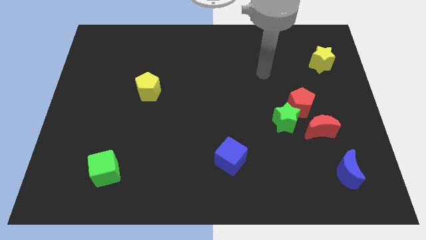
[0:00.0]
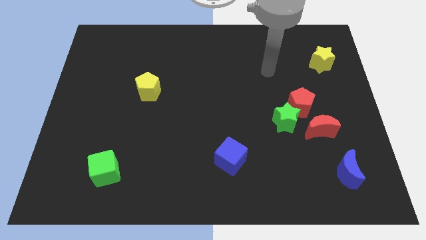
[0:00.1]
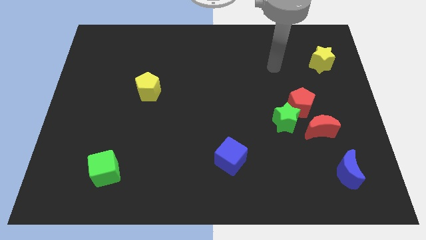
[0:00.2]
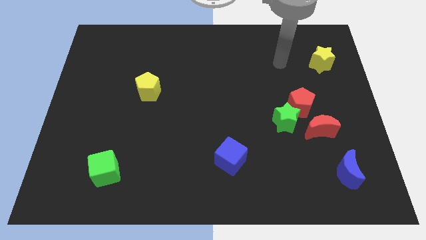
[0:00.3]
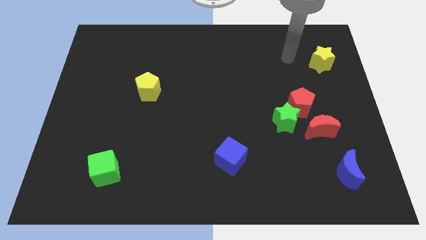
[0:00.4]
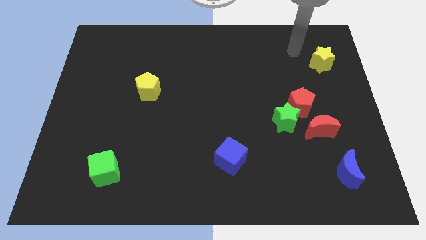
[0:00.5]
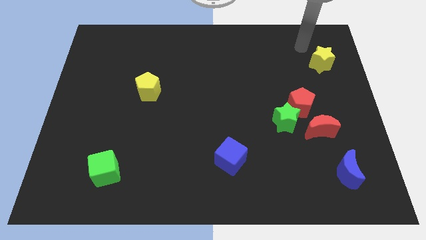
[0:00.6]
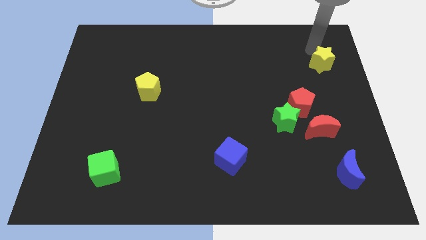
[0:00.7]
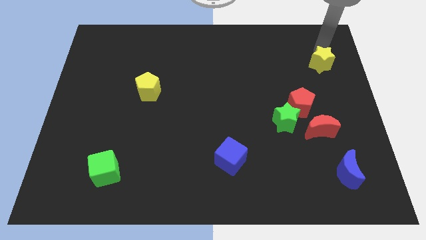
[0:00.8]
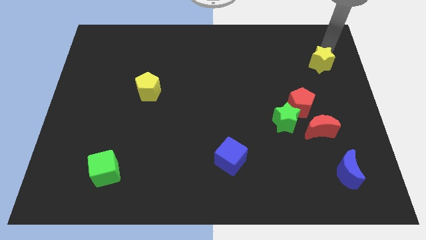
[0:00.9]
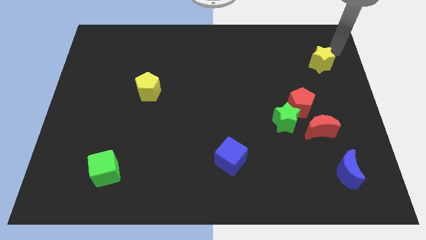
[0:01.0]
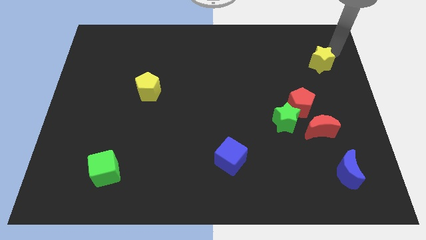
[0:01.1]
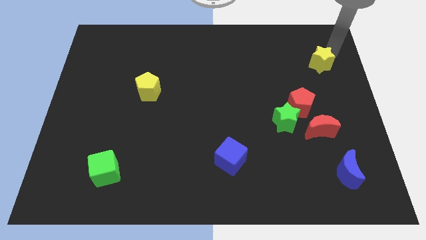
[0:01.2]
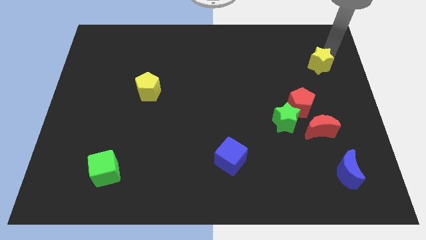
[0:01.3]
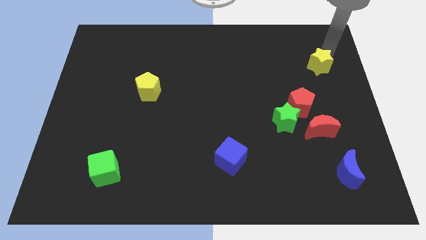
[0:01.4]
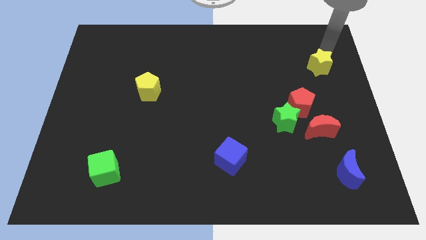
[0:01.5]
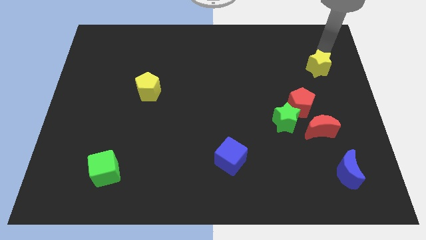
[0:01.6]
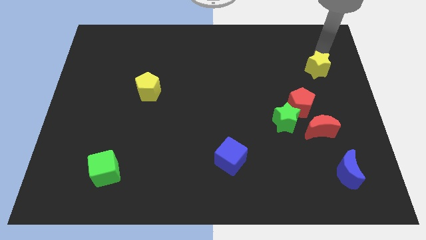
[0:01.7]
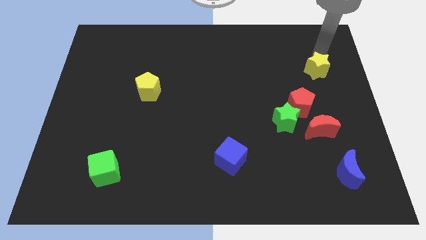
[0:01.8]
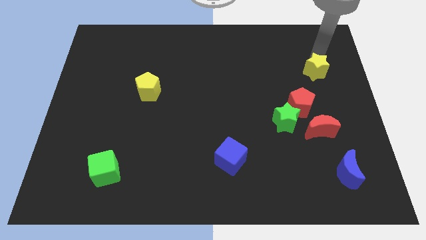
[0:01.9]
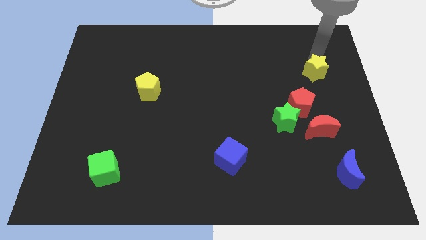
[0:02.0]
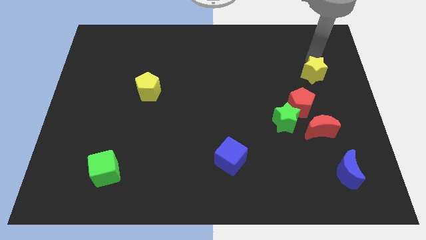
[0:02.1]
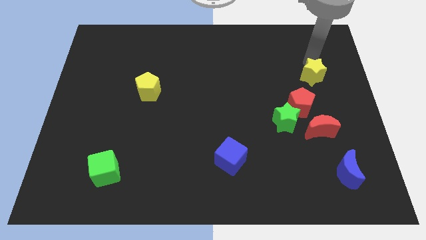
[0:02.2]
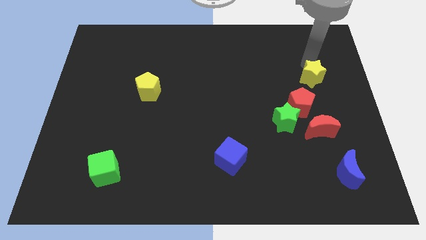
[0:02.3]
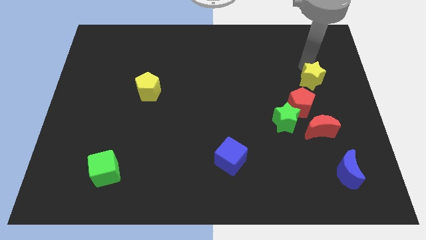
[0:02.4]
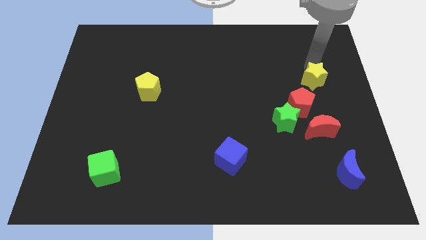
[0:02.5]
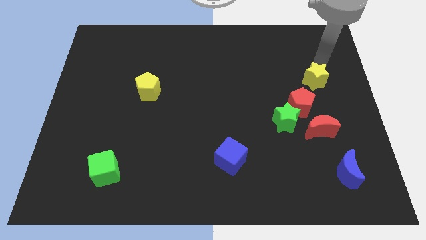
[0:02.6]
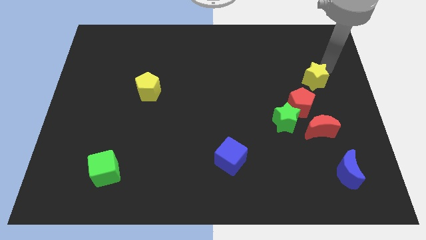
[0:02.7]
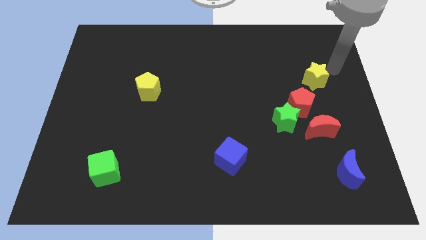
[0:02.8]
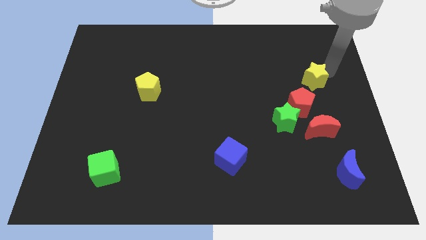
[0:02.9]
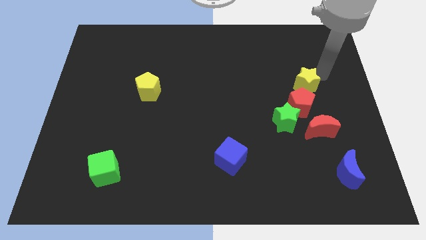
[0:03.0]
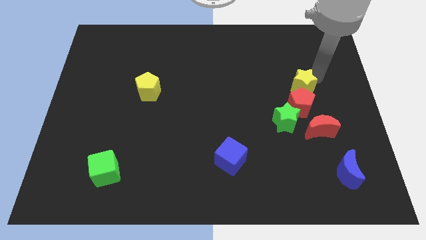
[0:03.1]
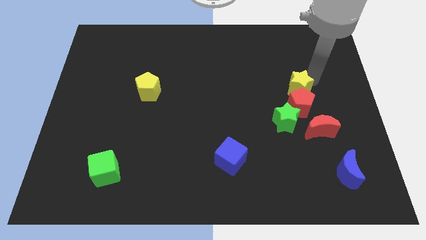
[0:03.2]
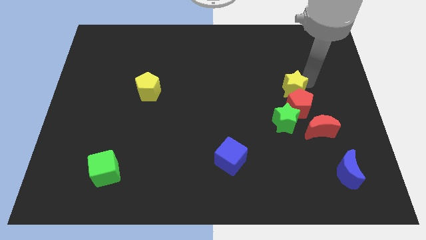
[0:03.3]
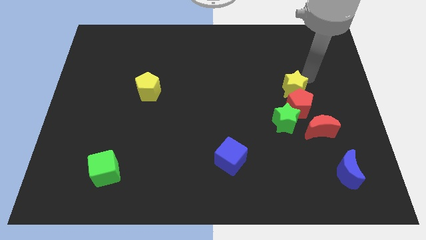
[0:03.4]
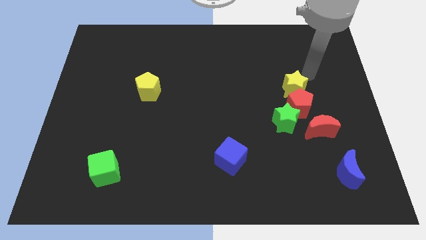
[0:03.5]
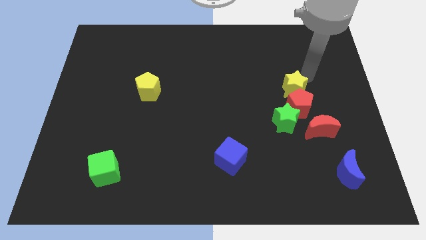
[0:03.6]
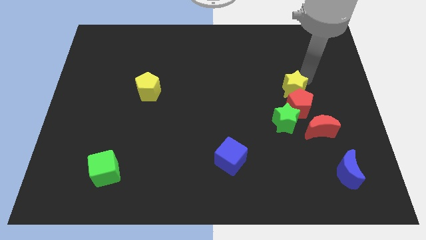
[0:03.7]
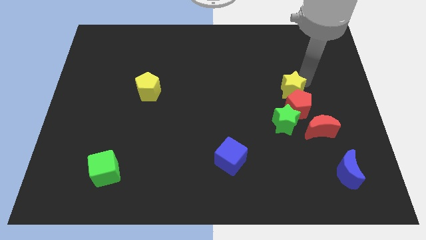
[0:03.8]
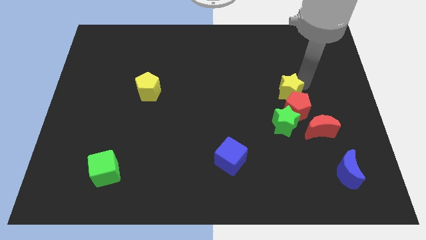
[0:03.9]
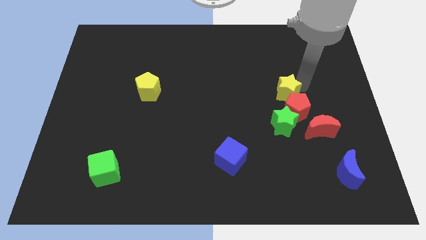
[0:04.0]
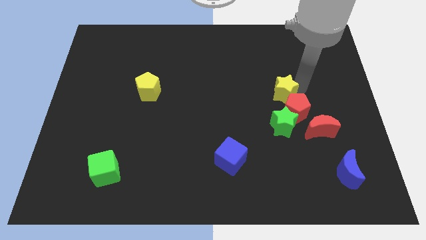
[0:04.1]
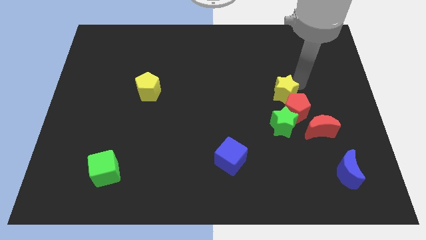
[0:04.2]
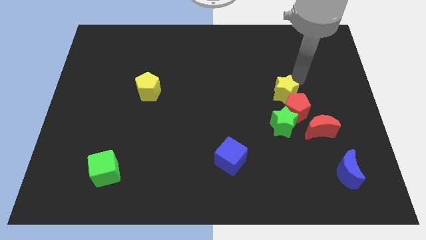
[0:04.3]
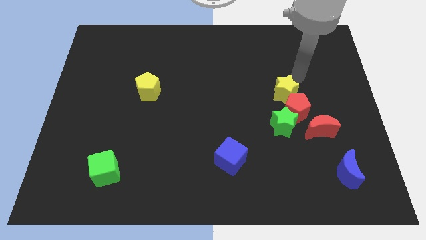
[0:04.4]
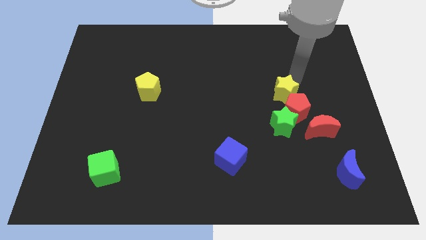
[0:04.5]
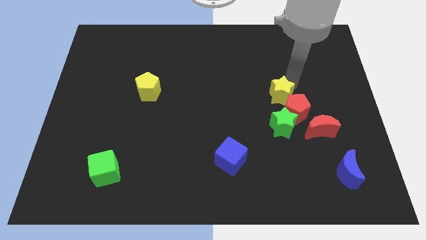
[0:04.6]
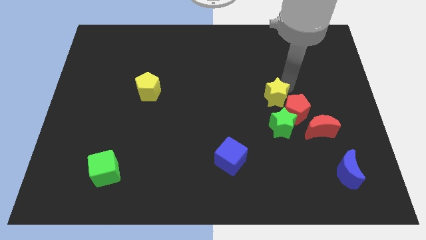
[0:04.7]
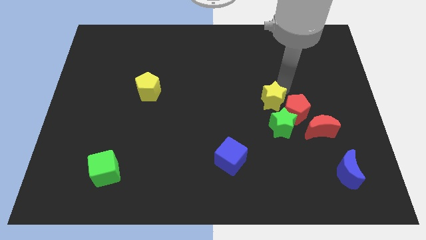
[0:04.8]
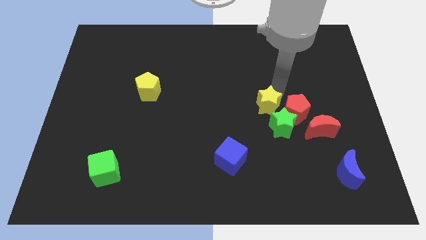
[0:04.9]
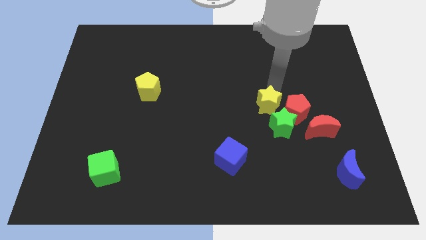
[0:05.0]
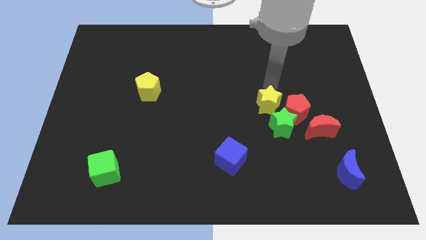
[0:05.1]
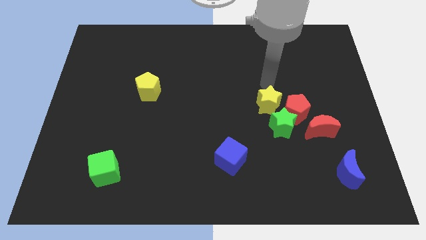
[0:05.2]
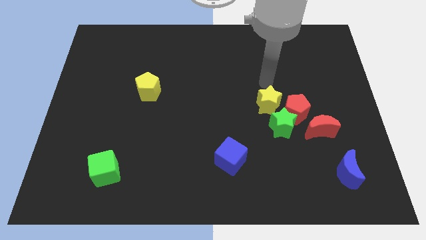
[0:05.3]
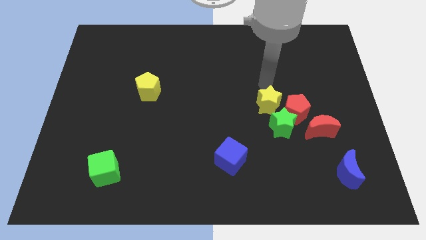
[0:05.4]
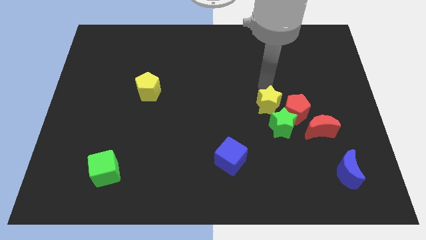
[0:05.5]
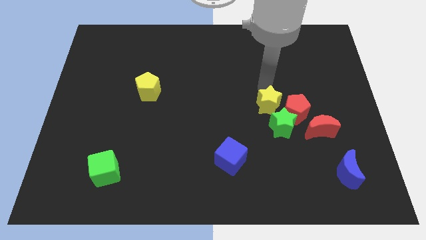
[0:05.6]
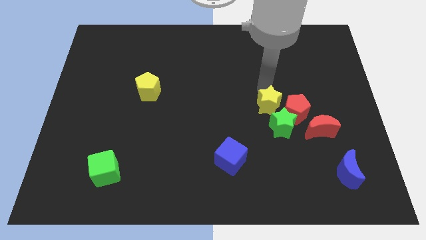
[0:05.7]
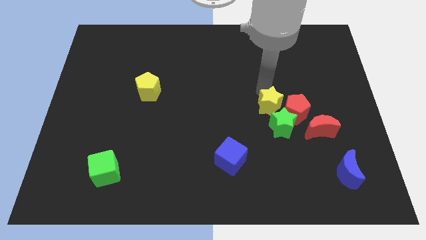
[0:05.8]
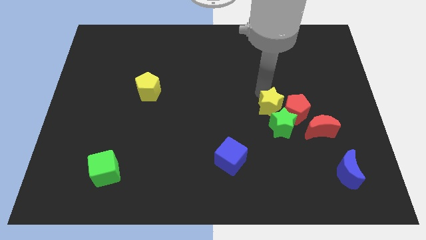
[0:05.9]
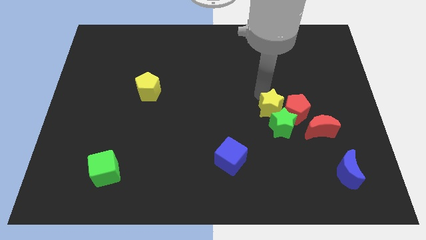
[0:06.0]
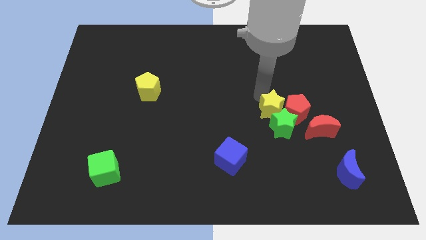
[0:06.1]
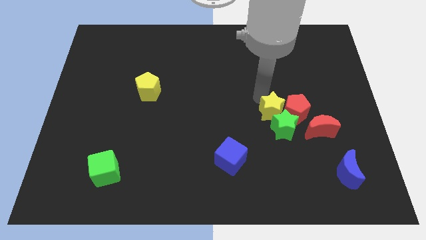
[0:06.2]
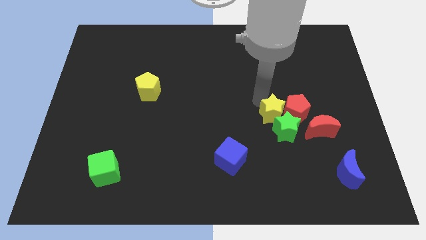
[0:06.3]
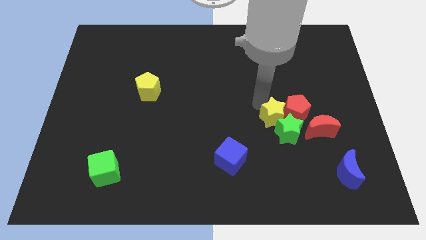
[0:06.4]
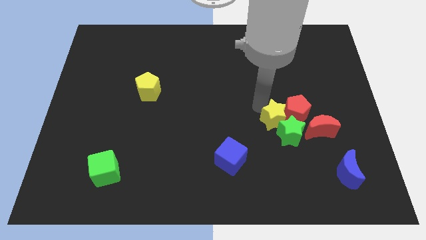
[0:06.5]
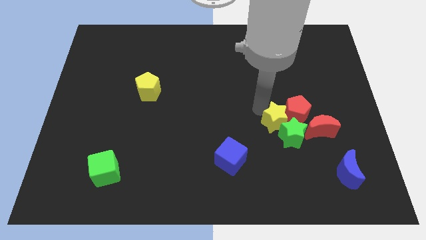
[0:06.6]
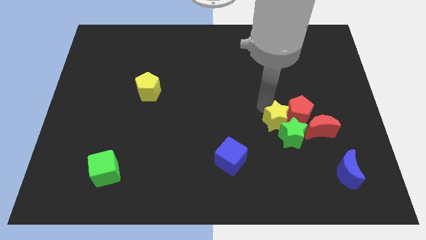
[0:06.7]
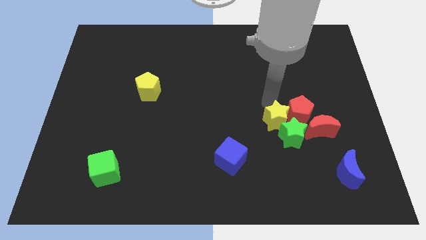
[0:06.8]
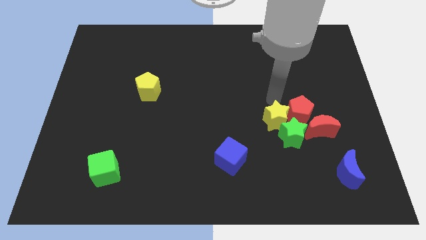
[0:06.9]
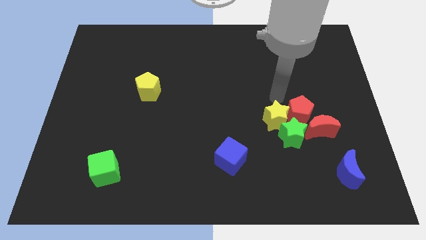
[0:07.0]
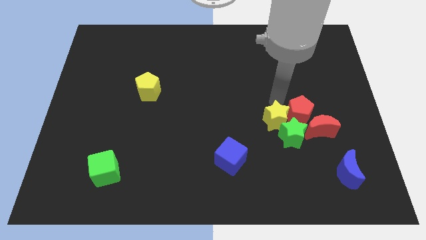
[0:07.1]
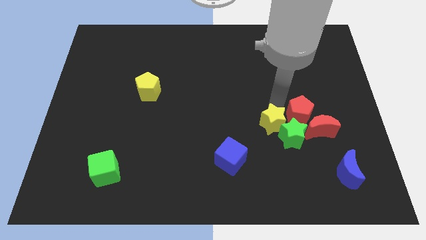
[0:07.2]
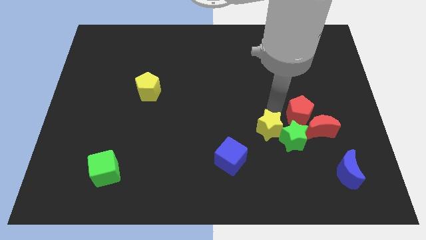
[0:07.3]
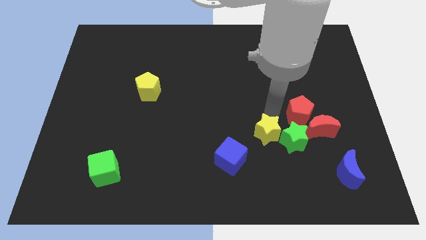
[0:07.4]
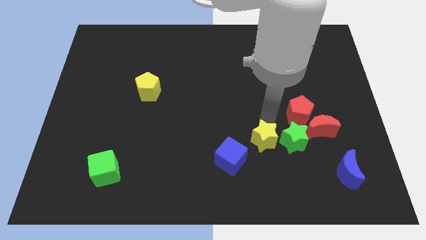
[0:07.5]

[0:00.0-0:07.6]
move the yellow star to the right of the blue cube

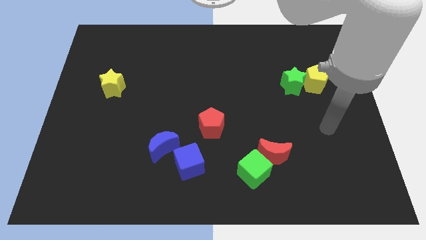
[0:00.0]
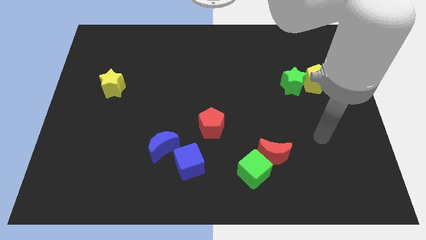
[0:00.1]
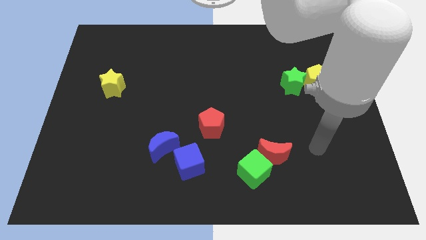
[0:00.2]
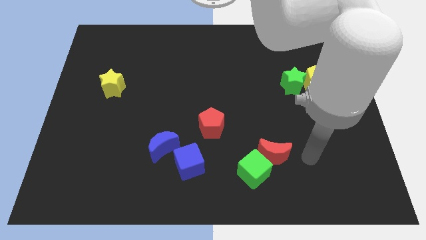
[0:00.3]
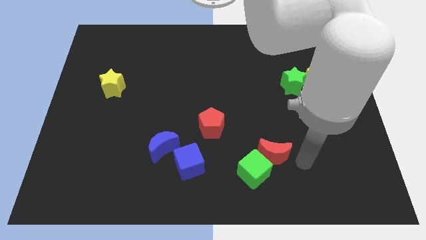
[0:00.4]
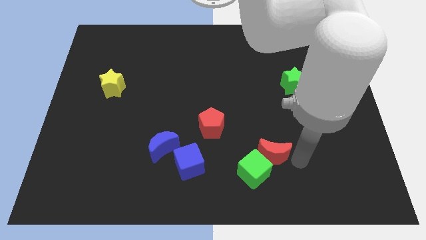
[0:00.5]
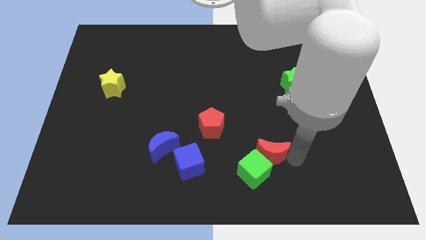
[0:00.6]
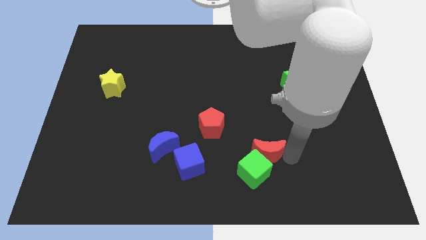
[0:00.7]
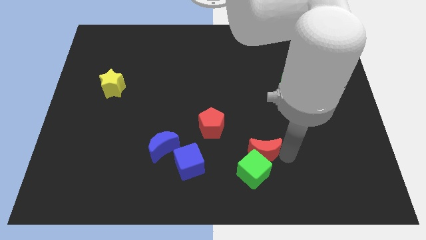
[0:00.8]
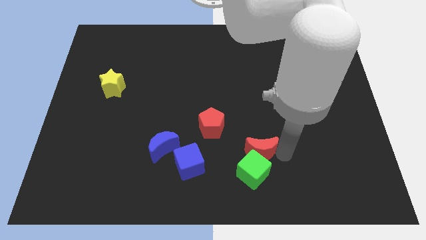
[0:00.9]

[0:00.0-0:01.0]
put the red moon to the bottom right of the red pentagon
